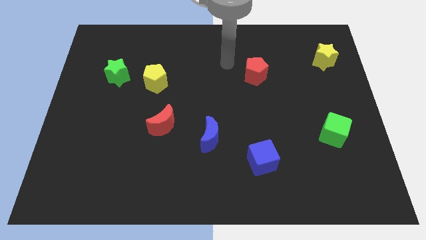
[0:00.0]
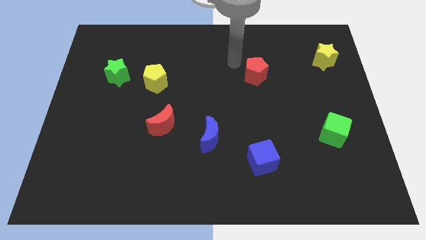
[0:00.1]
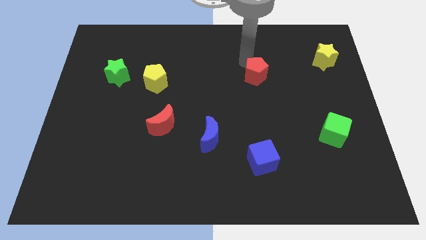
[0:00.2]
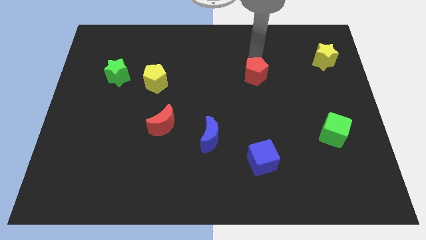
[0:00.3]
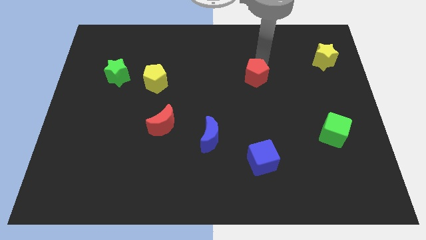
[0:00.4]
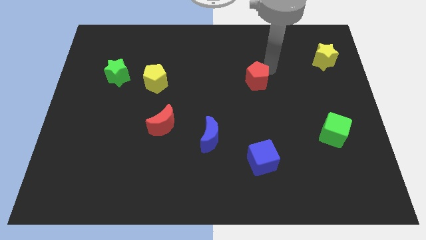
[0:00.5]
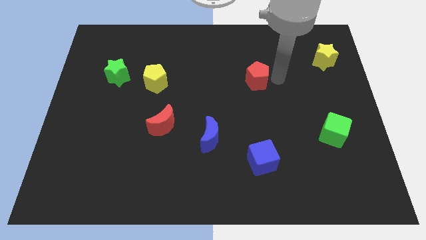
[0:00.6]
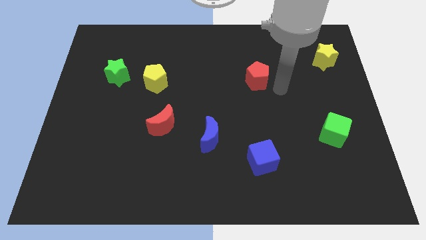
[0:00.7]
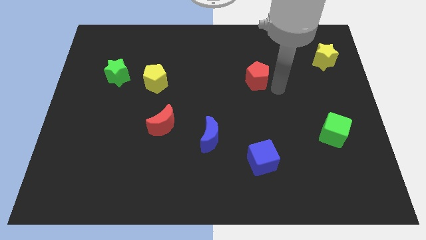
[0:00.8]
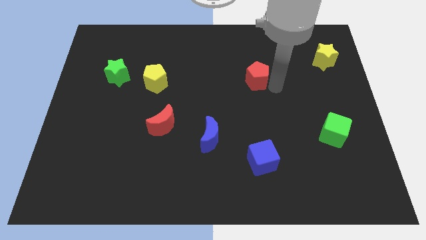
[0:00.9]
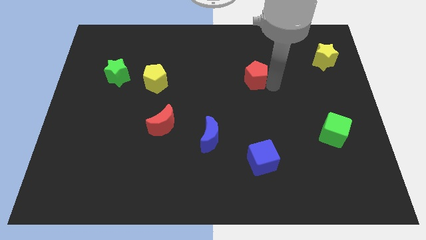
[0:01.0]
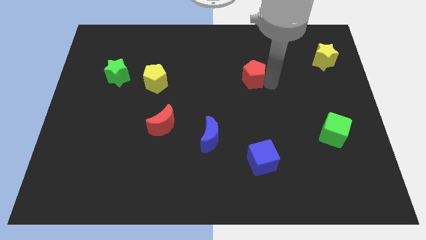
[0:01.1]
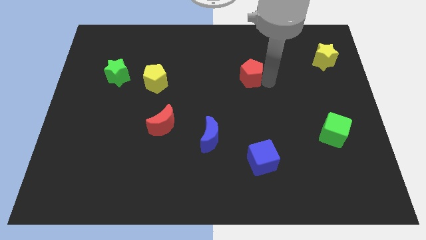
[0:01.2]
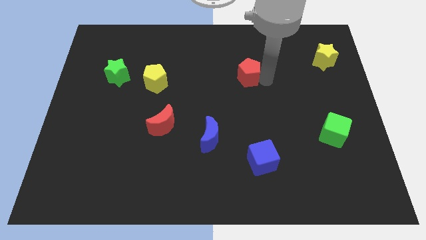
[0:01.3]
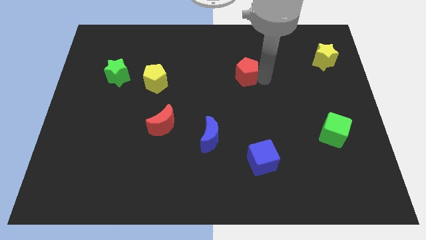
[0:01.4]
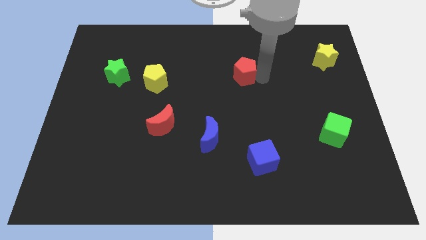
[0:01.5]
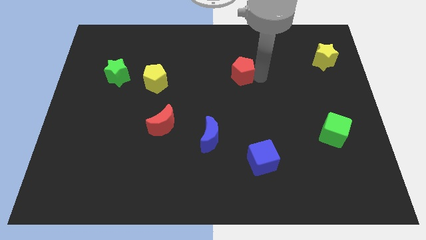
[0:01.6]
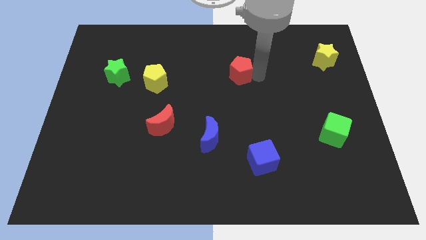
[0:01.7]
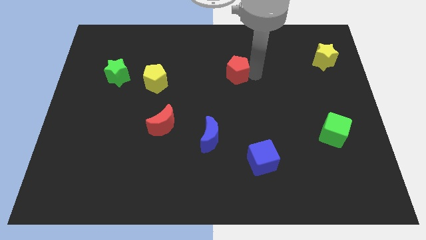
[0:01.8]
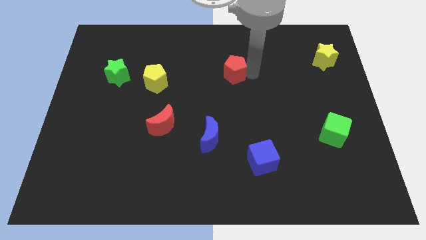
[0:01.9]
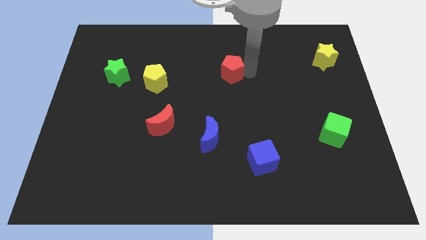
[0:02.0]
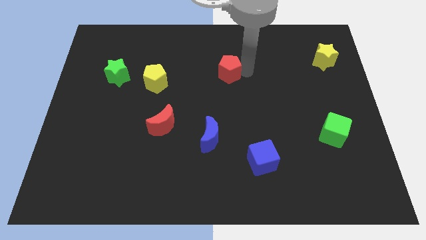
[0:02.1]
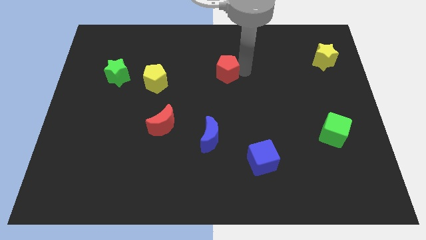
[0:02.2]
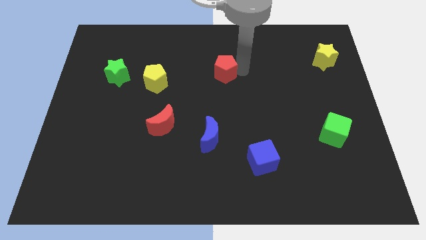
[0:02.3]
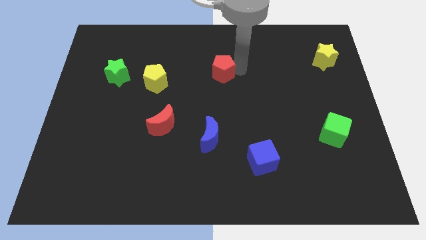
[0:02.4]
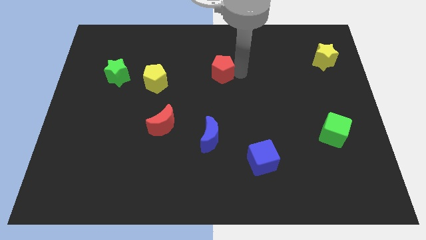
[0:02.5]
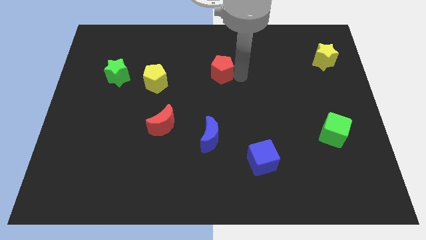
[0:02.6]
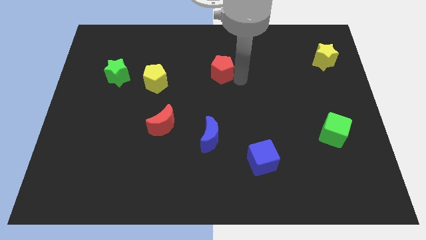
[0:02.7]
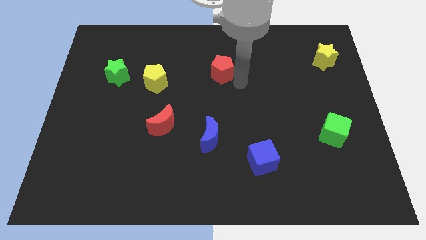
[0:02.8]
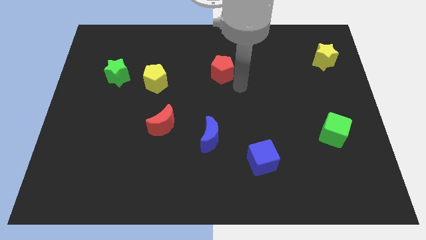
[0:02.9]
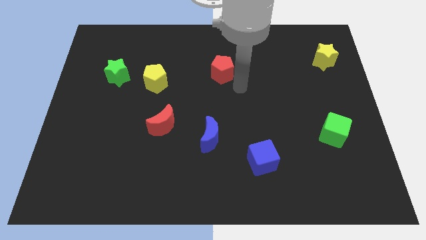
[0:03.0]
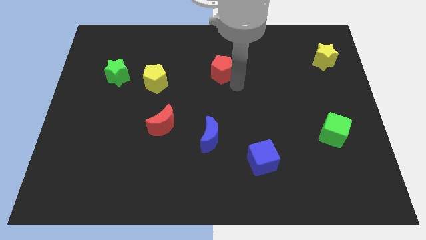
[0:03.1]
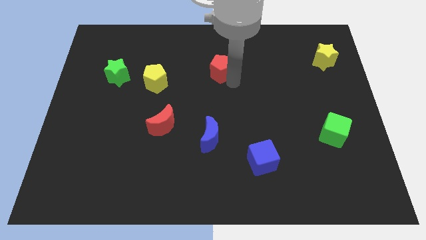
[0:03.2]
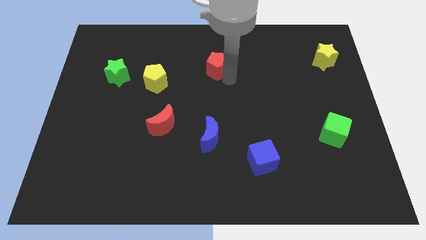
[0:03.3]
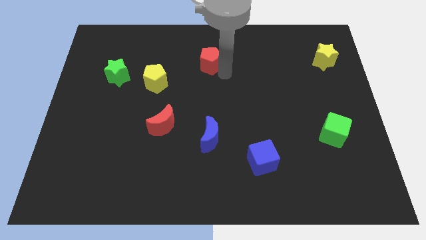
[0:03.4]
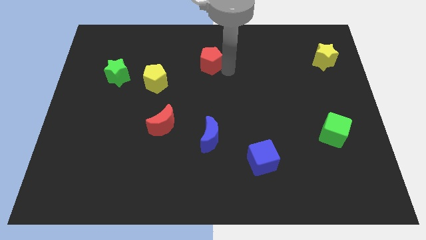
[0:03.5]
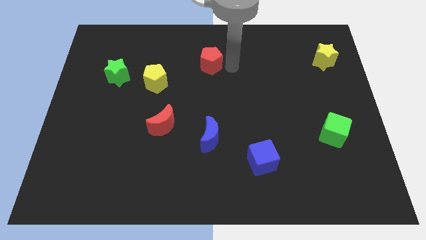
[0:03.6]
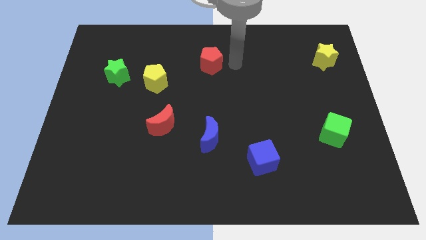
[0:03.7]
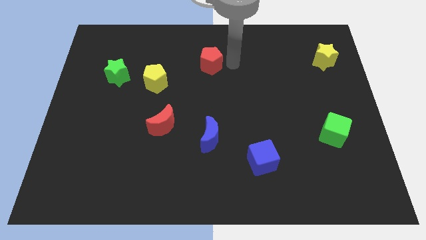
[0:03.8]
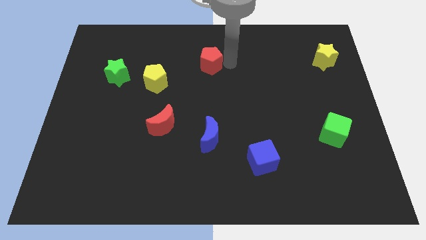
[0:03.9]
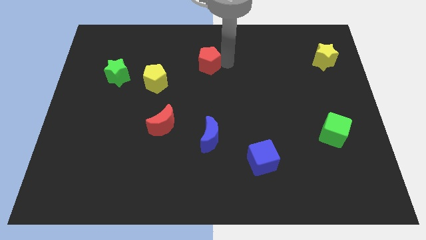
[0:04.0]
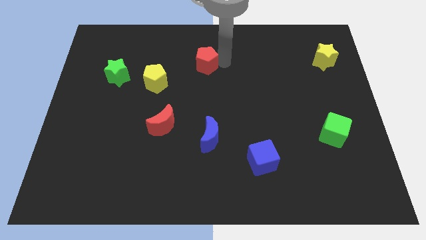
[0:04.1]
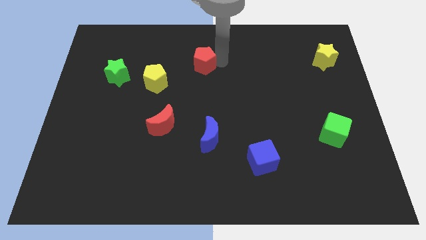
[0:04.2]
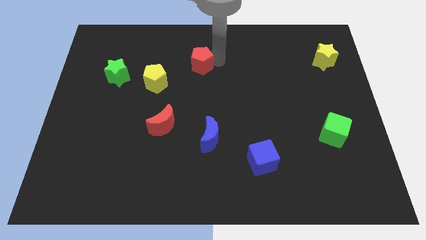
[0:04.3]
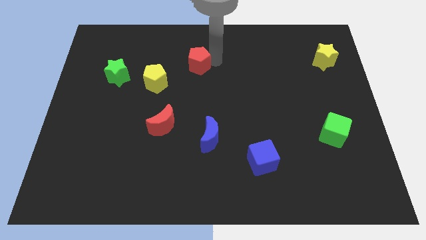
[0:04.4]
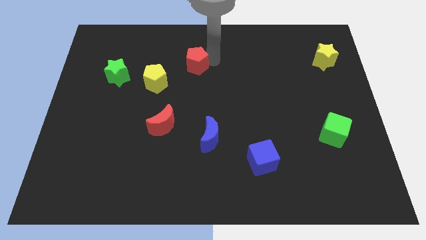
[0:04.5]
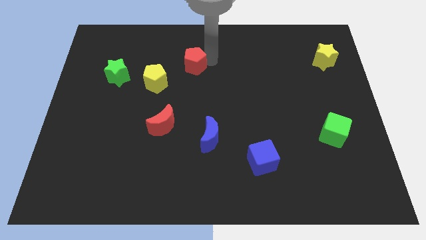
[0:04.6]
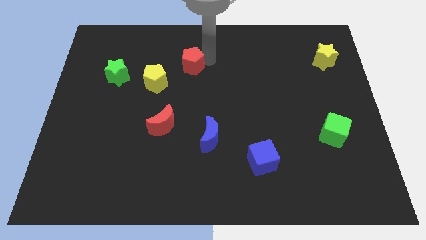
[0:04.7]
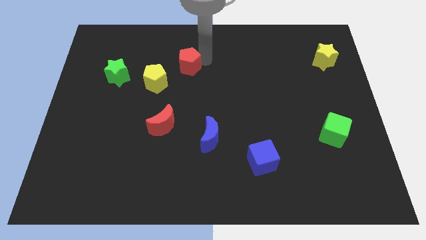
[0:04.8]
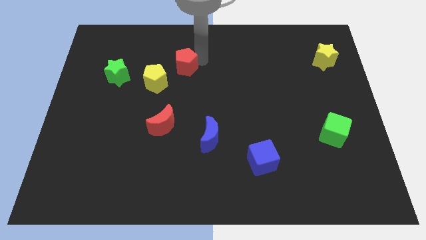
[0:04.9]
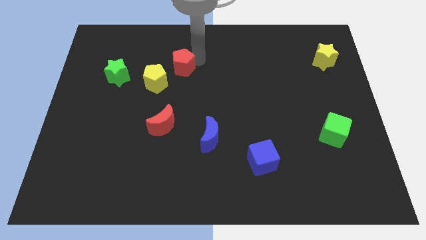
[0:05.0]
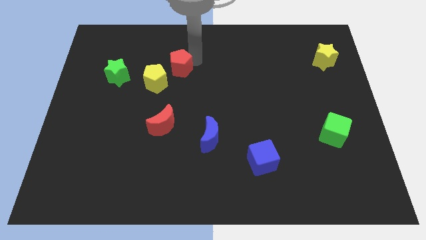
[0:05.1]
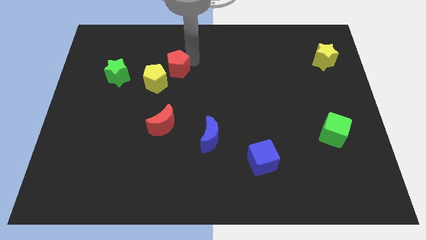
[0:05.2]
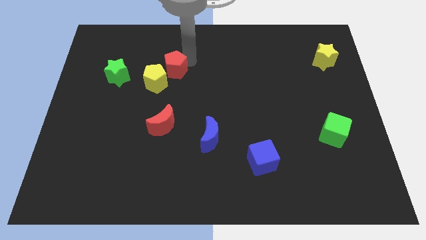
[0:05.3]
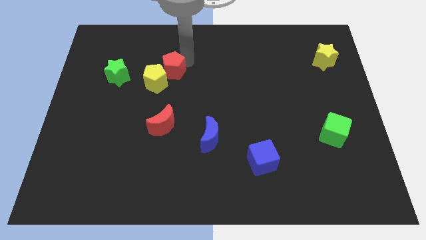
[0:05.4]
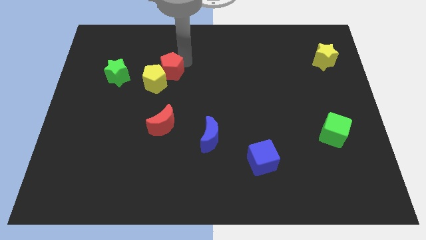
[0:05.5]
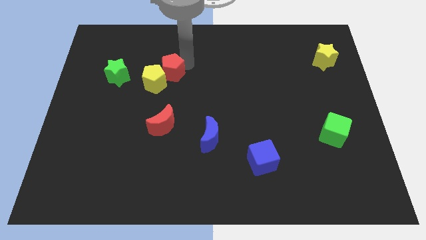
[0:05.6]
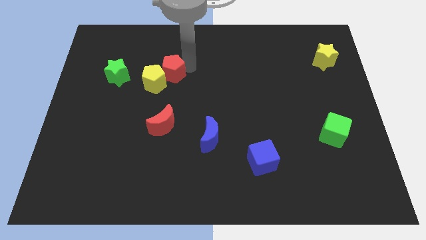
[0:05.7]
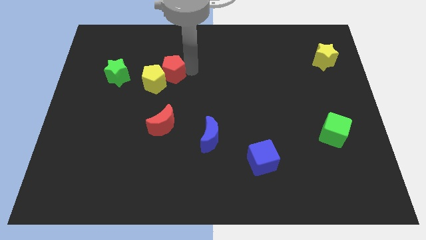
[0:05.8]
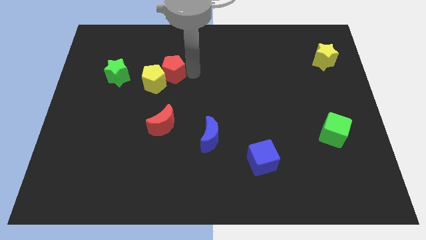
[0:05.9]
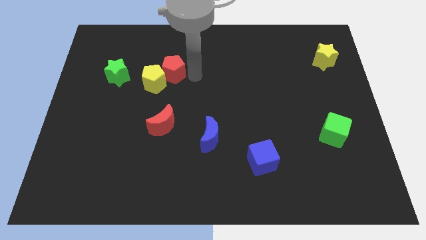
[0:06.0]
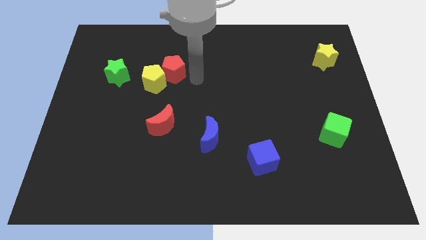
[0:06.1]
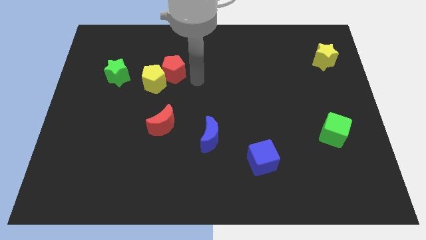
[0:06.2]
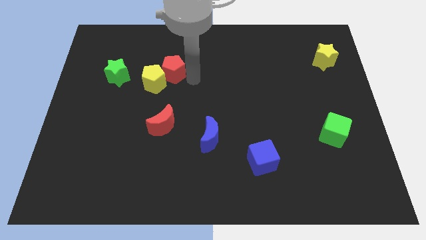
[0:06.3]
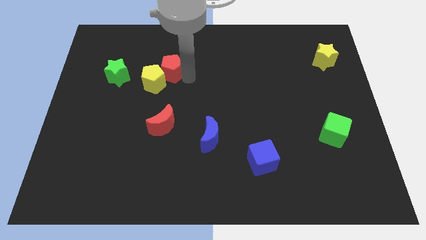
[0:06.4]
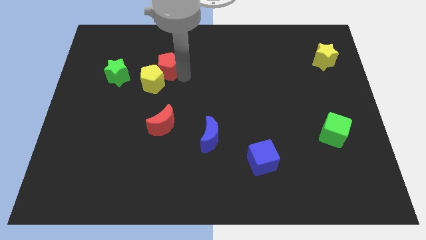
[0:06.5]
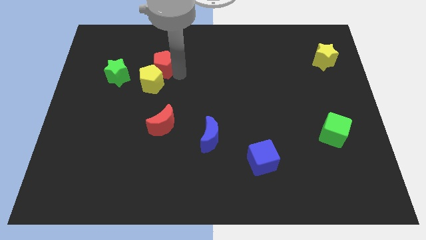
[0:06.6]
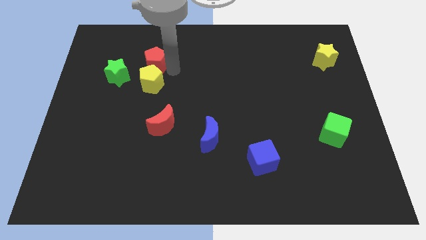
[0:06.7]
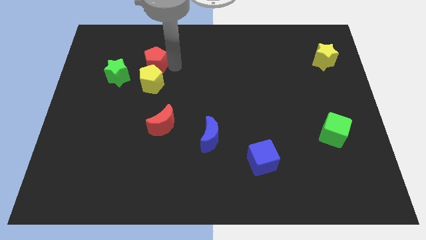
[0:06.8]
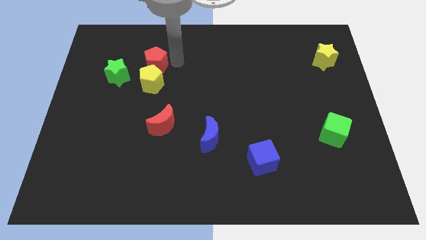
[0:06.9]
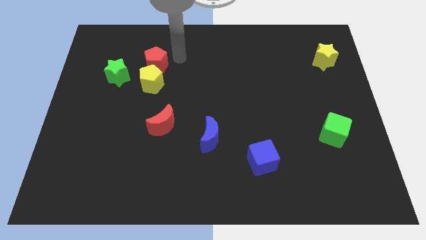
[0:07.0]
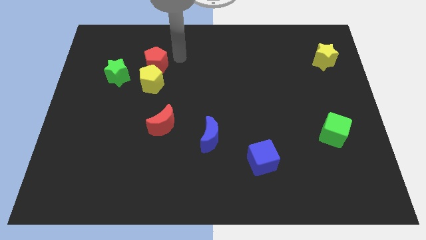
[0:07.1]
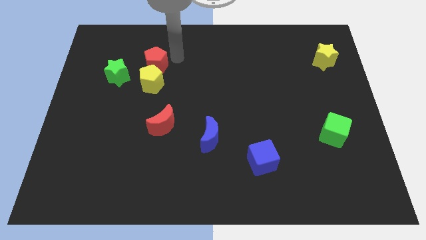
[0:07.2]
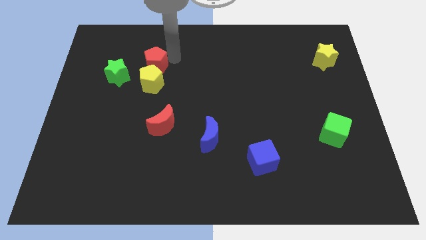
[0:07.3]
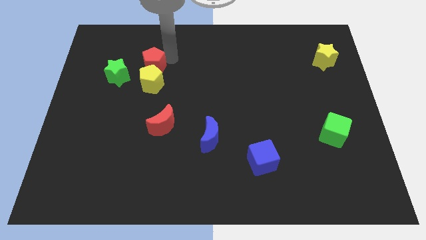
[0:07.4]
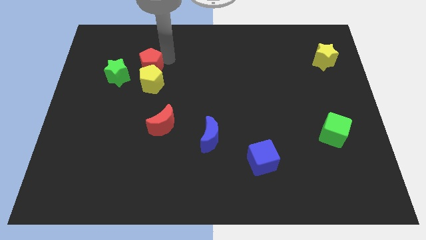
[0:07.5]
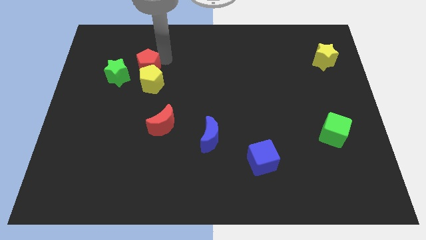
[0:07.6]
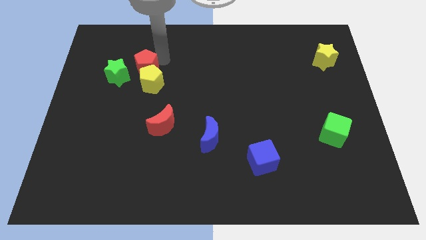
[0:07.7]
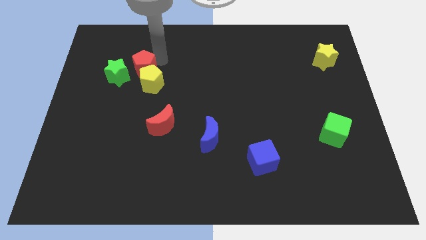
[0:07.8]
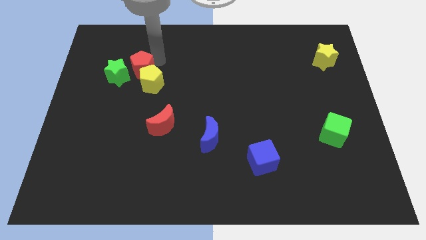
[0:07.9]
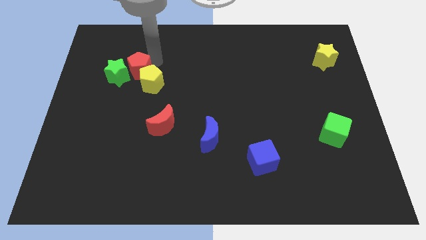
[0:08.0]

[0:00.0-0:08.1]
slide the red pentagon next to the green star
